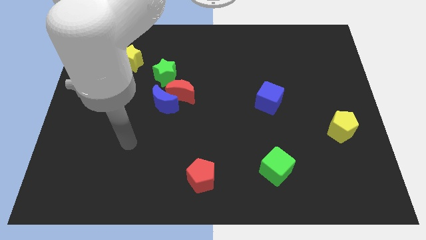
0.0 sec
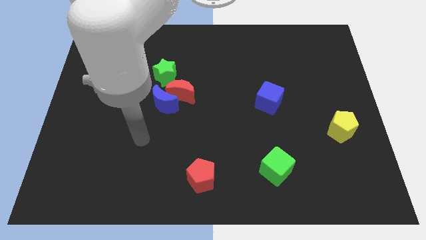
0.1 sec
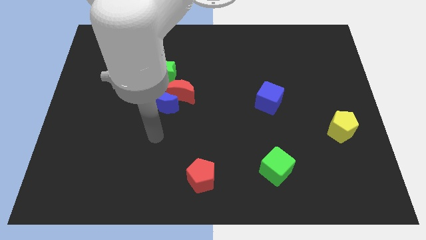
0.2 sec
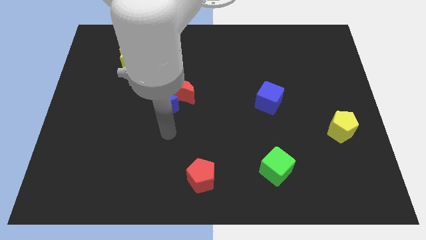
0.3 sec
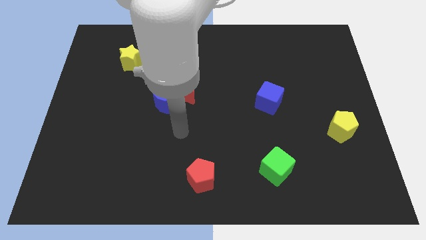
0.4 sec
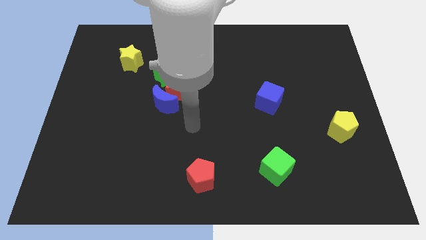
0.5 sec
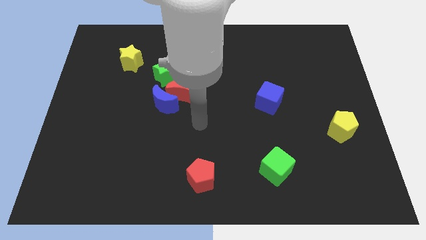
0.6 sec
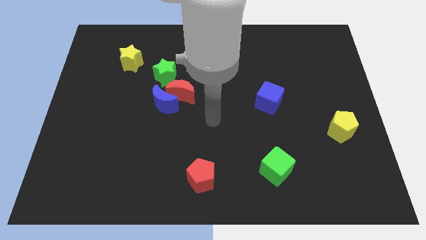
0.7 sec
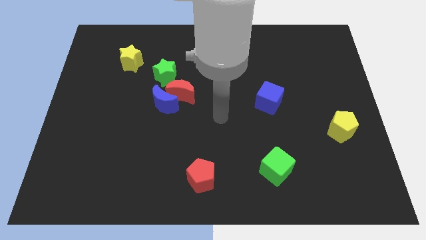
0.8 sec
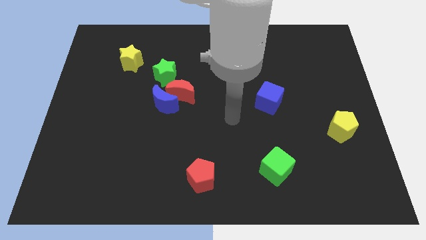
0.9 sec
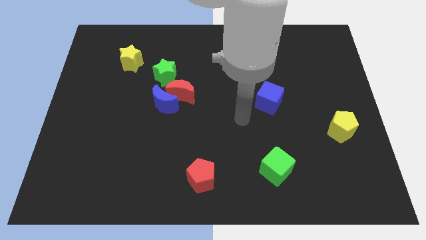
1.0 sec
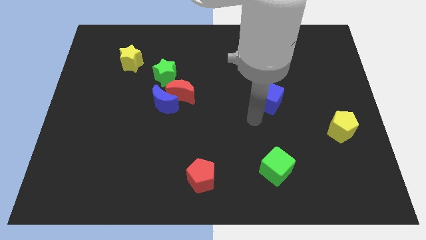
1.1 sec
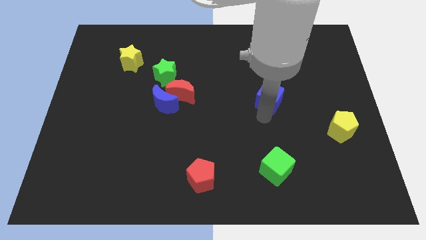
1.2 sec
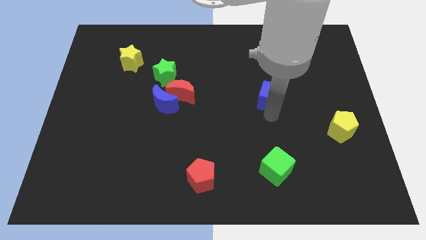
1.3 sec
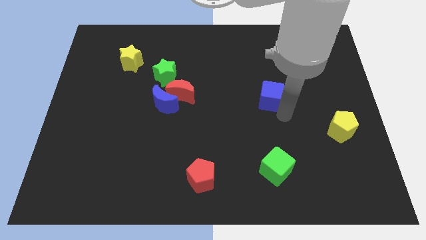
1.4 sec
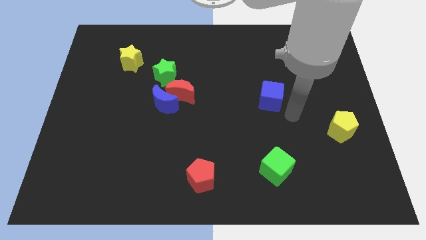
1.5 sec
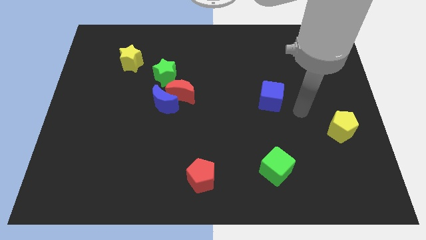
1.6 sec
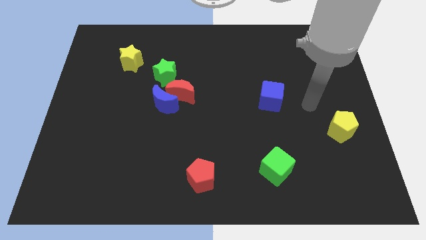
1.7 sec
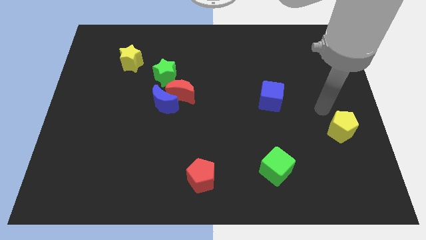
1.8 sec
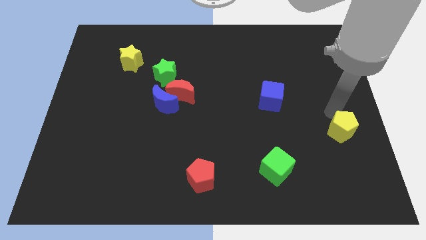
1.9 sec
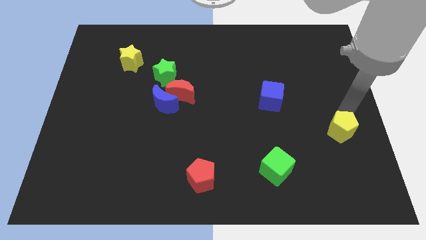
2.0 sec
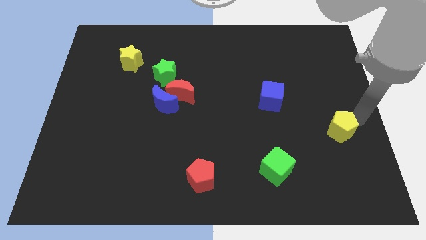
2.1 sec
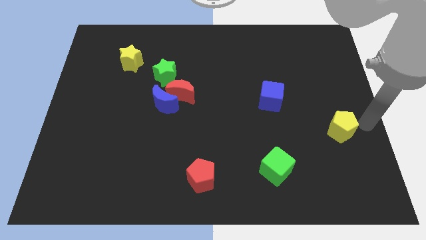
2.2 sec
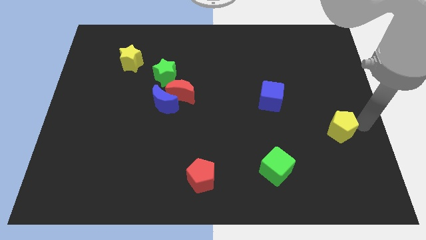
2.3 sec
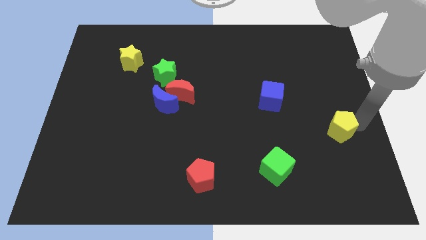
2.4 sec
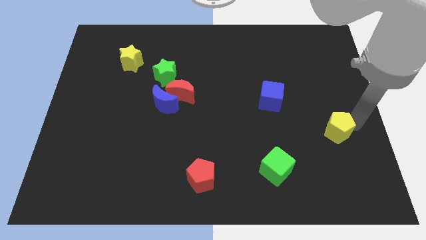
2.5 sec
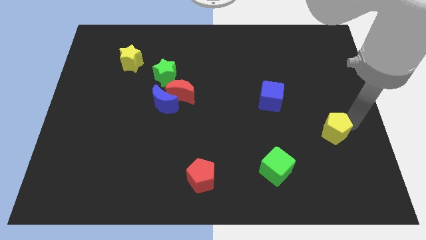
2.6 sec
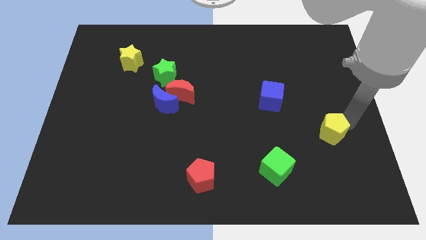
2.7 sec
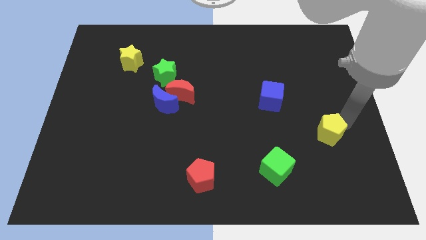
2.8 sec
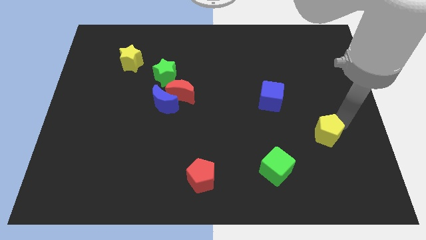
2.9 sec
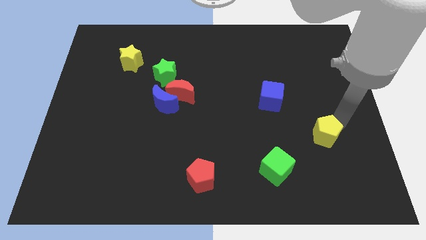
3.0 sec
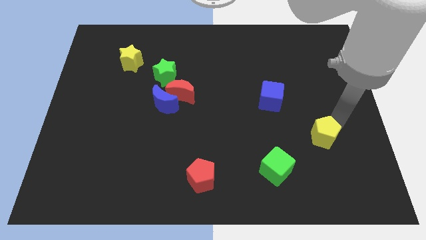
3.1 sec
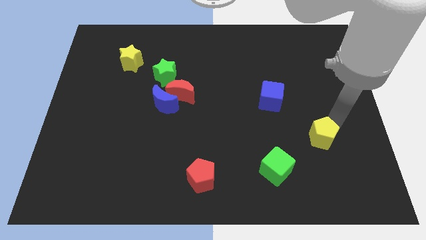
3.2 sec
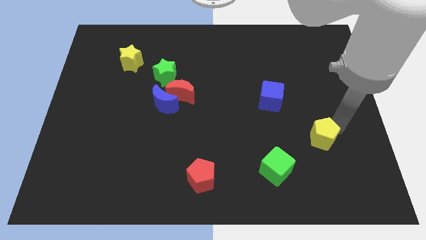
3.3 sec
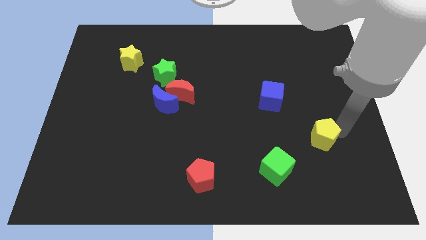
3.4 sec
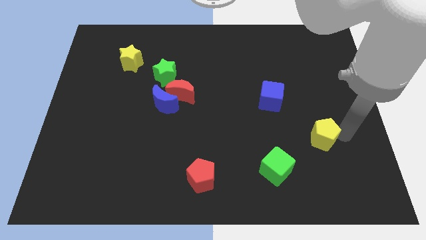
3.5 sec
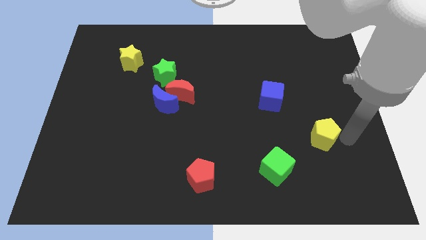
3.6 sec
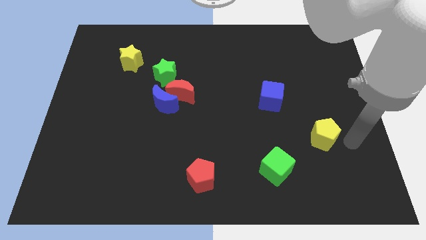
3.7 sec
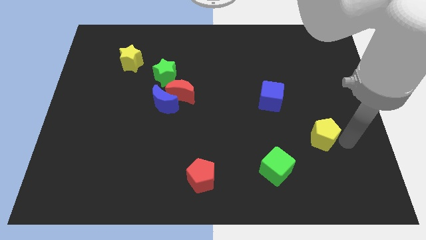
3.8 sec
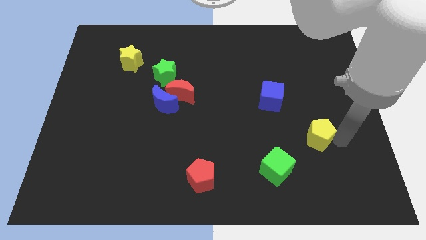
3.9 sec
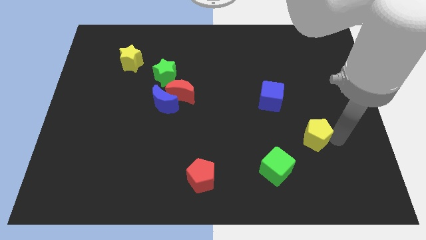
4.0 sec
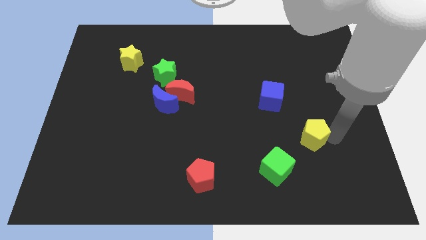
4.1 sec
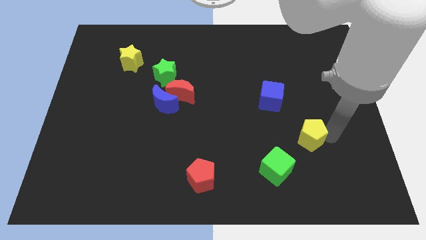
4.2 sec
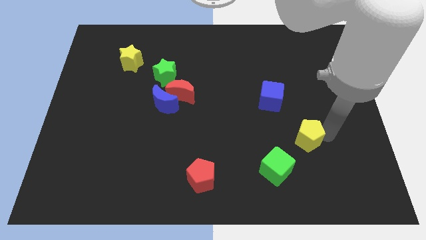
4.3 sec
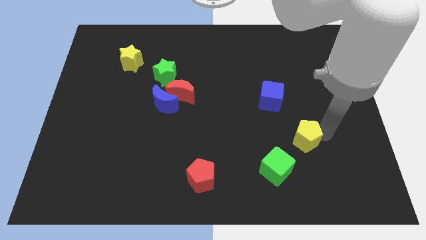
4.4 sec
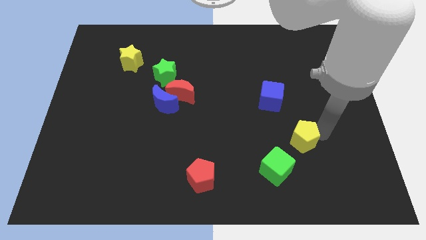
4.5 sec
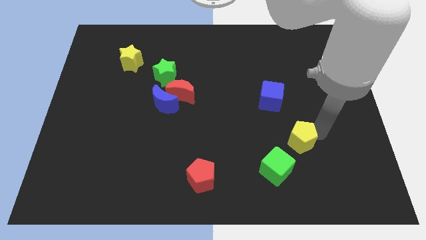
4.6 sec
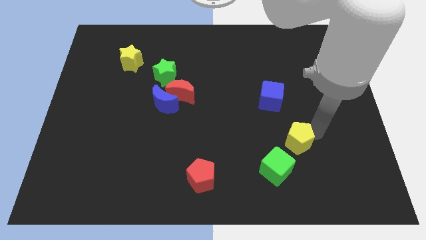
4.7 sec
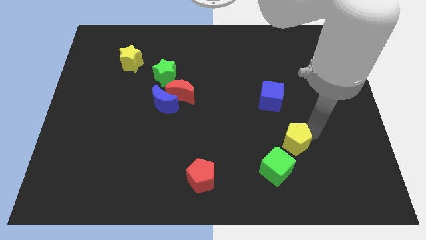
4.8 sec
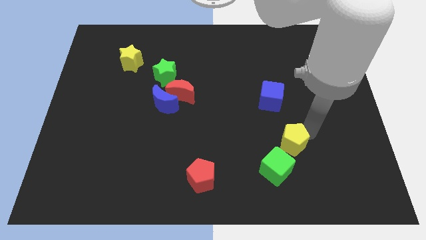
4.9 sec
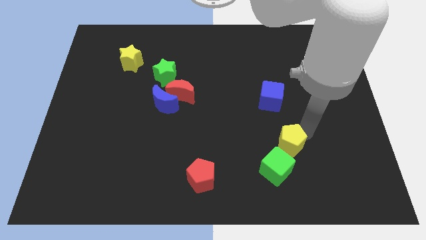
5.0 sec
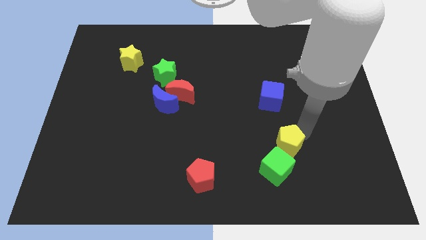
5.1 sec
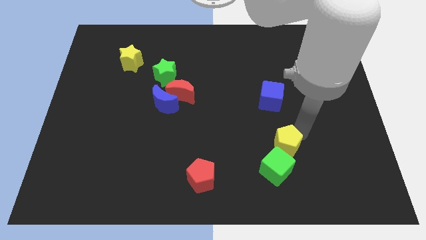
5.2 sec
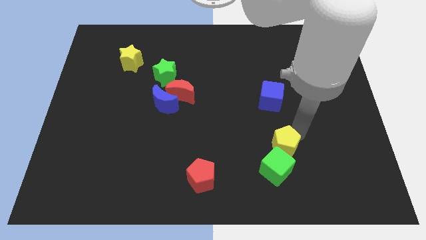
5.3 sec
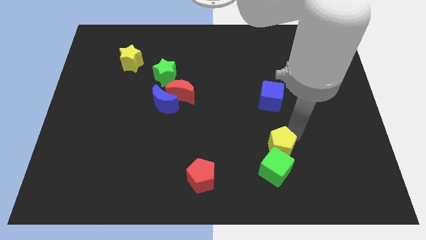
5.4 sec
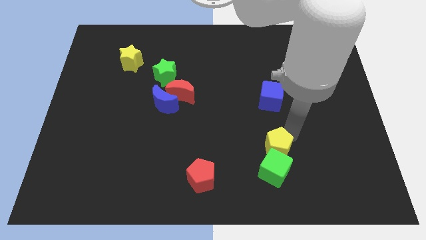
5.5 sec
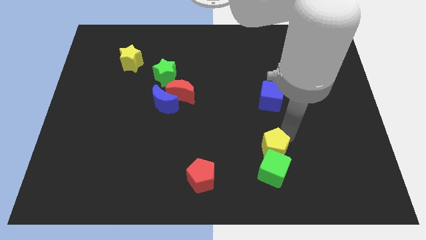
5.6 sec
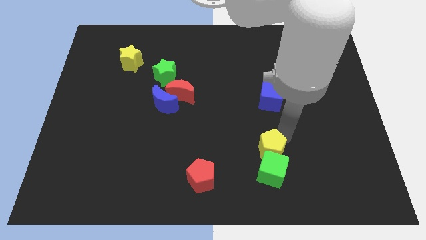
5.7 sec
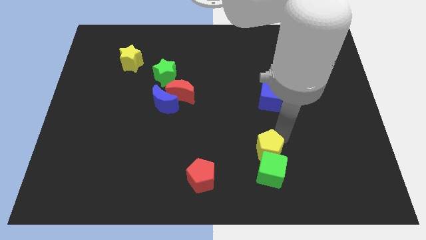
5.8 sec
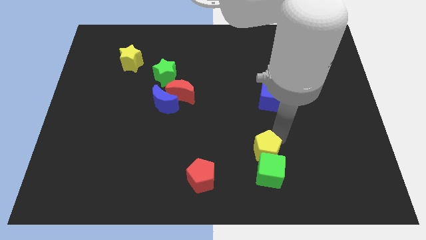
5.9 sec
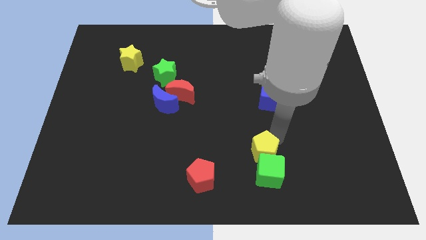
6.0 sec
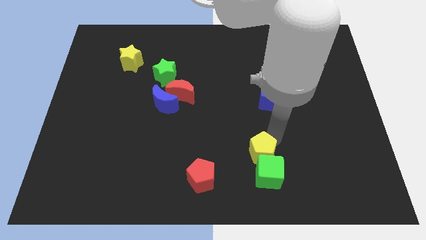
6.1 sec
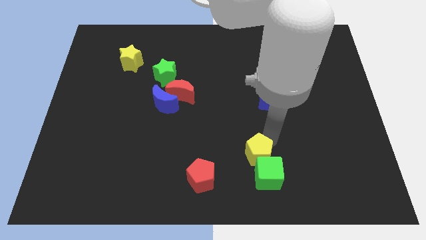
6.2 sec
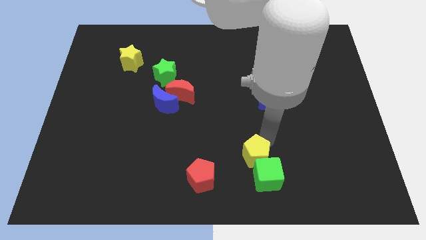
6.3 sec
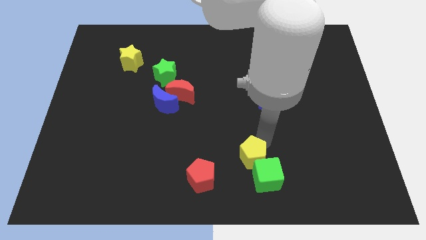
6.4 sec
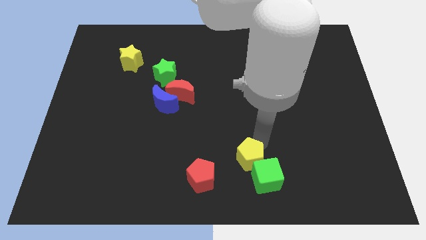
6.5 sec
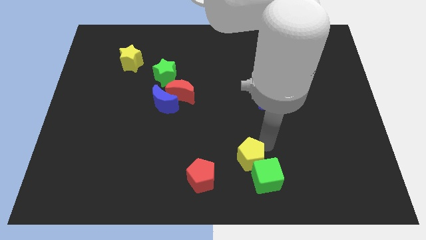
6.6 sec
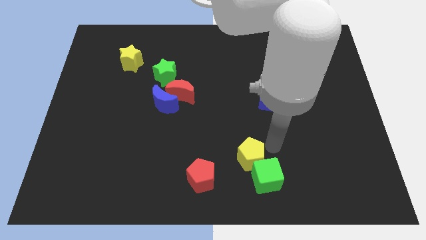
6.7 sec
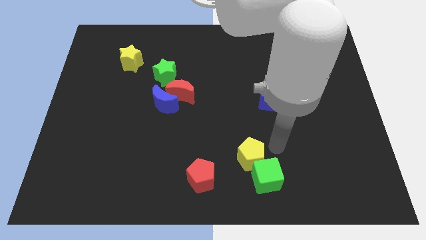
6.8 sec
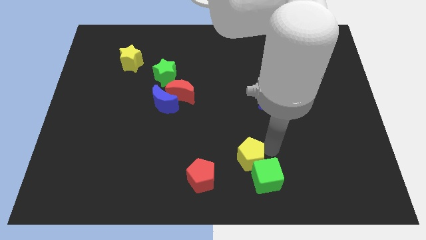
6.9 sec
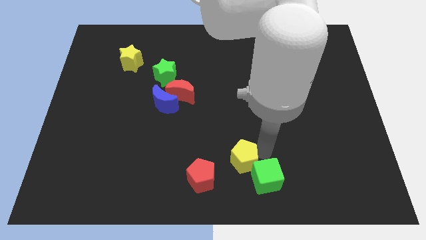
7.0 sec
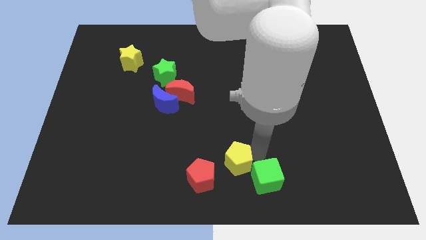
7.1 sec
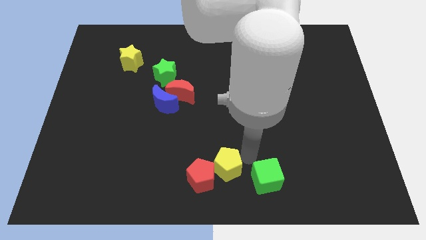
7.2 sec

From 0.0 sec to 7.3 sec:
push the yellow pentagon close to the red pentagon
